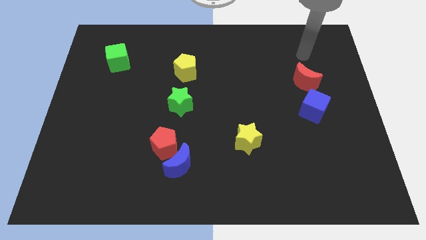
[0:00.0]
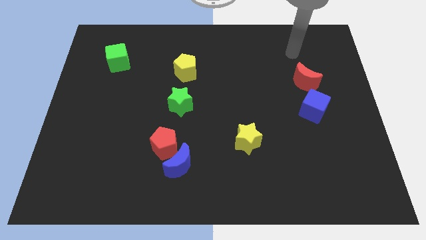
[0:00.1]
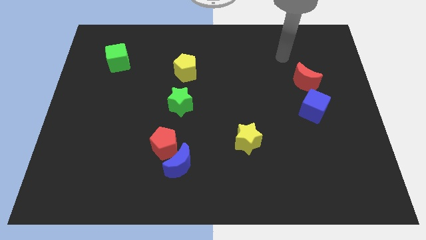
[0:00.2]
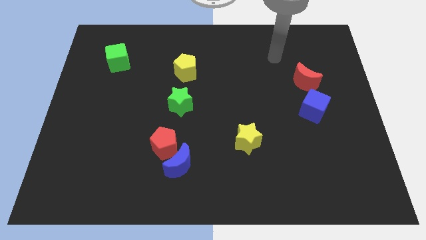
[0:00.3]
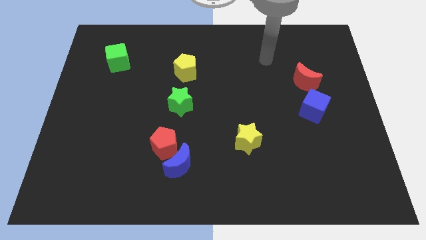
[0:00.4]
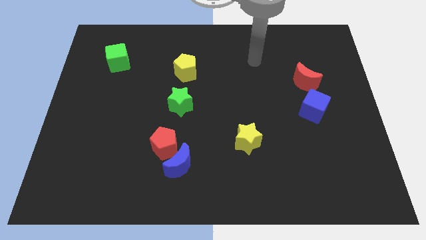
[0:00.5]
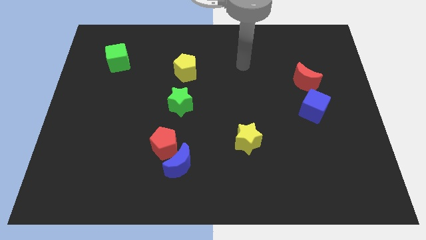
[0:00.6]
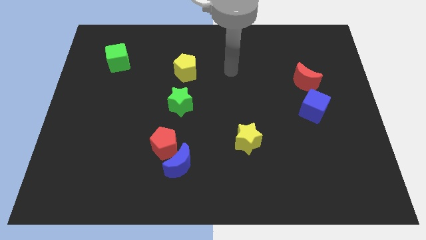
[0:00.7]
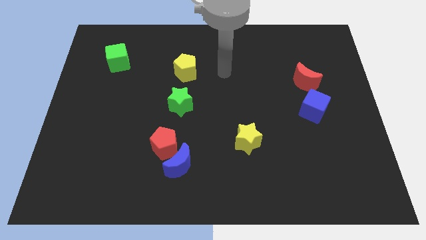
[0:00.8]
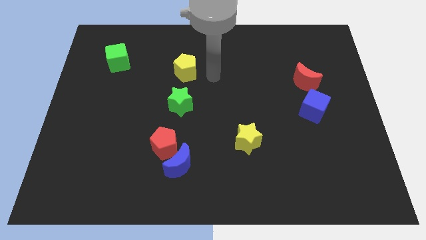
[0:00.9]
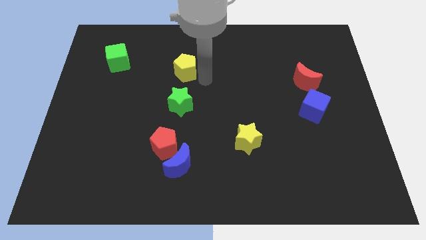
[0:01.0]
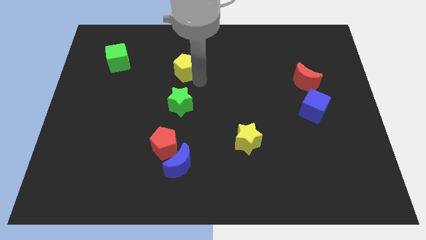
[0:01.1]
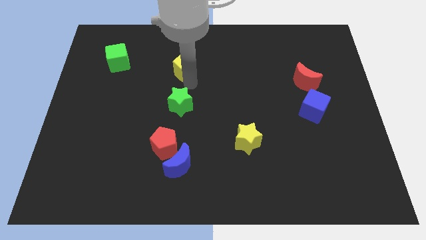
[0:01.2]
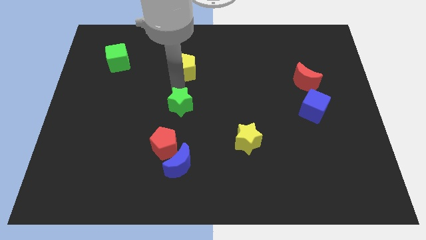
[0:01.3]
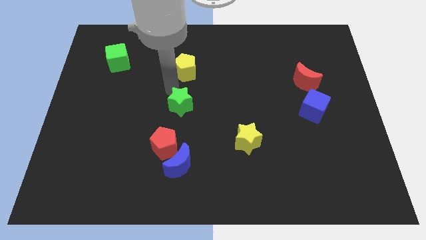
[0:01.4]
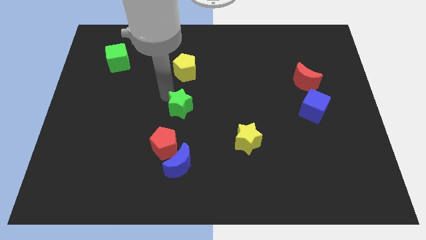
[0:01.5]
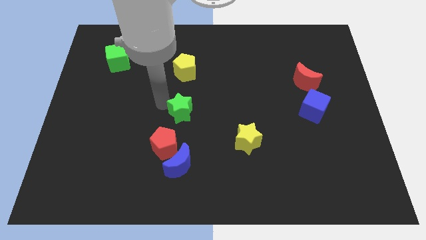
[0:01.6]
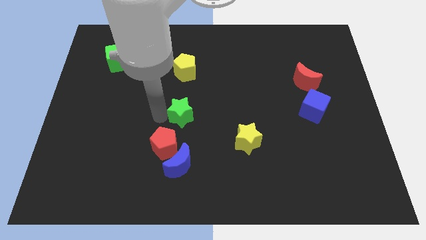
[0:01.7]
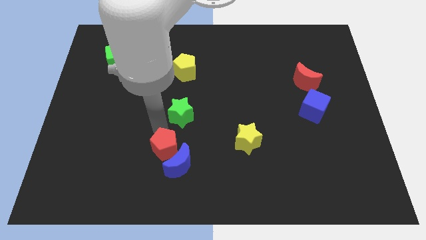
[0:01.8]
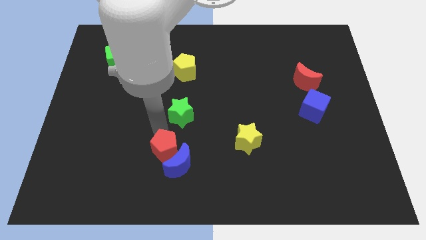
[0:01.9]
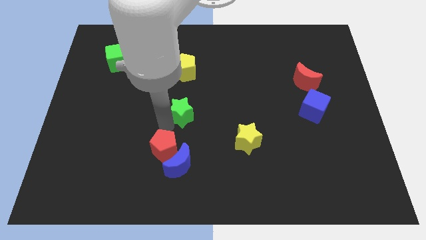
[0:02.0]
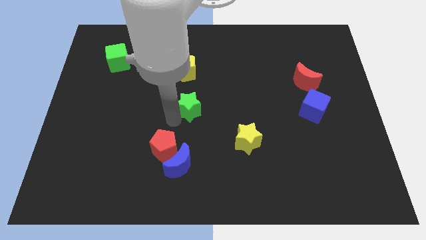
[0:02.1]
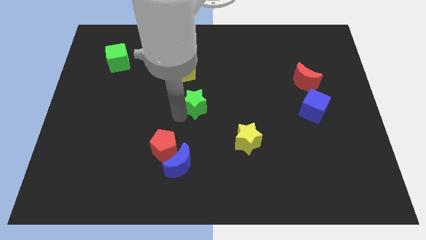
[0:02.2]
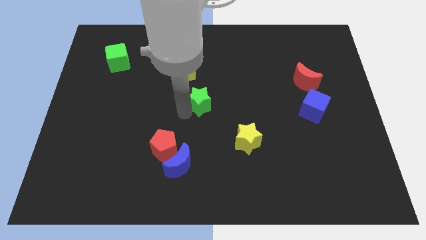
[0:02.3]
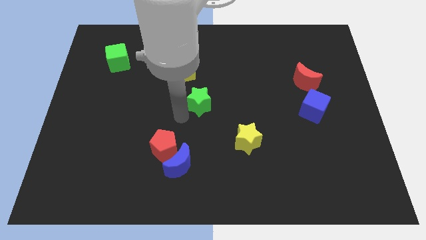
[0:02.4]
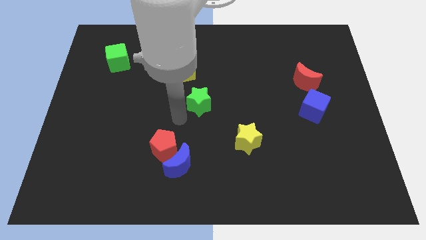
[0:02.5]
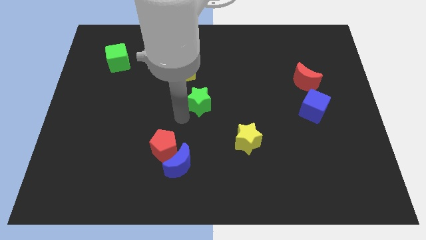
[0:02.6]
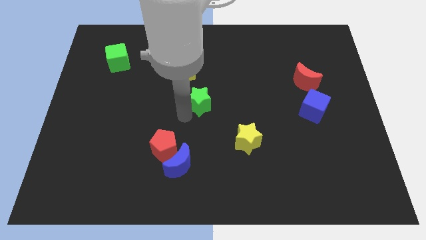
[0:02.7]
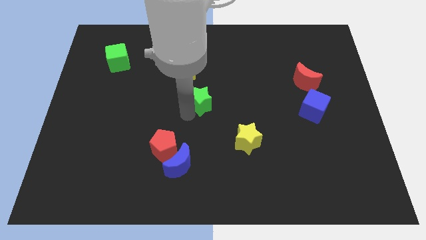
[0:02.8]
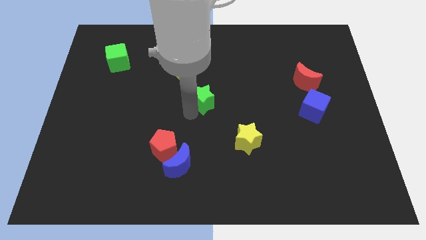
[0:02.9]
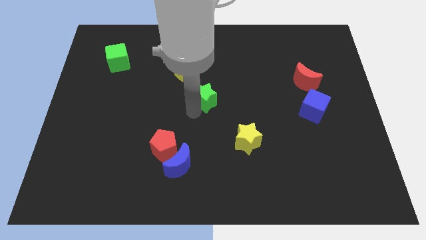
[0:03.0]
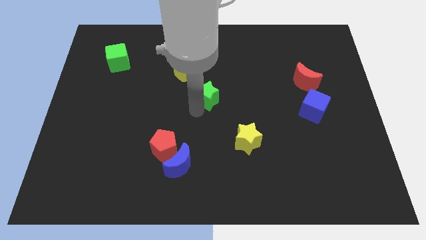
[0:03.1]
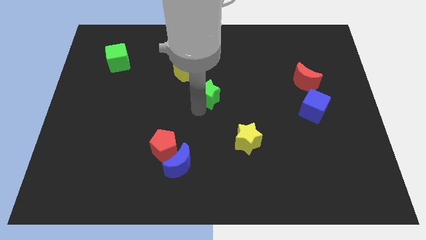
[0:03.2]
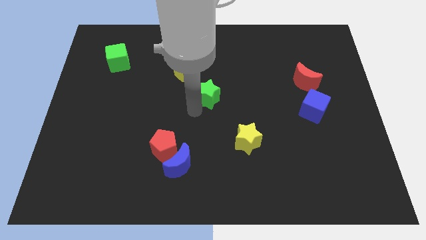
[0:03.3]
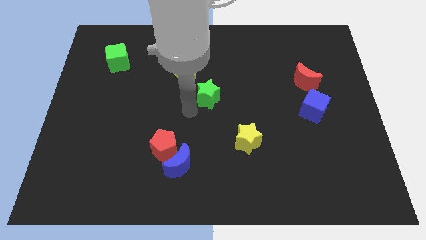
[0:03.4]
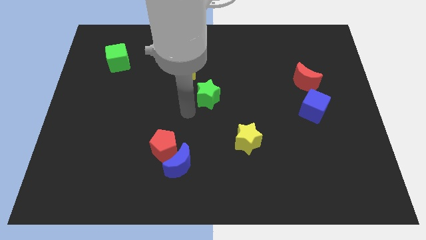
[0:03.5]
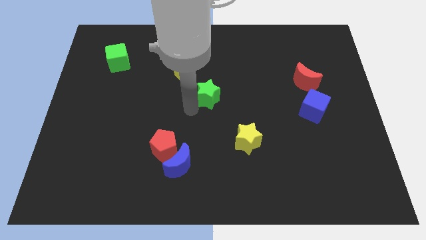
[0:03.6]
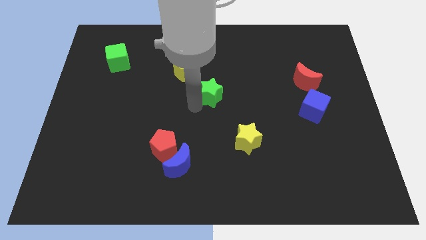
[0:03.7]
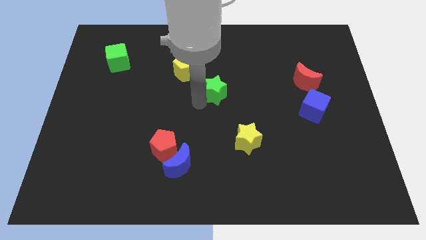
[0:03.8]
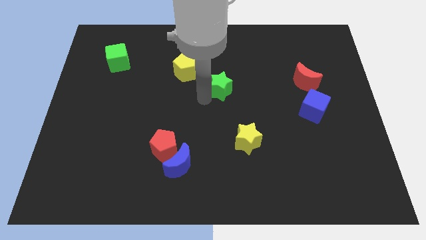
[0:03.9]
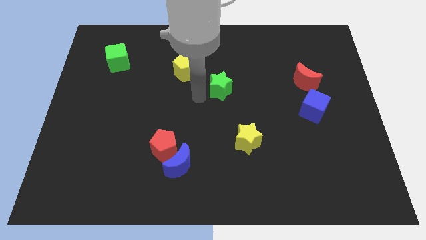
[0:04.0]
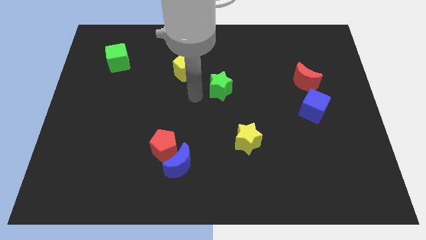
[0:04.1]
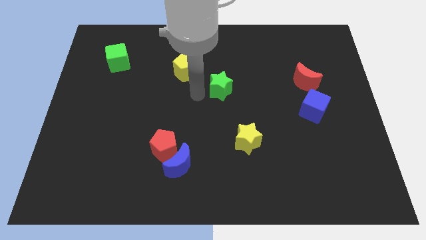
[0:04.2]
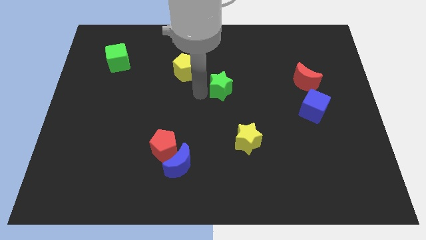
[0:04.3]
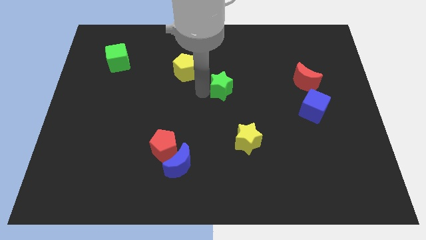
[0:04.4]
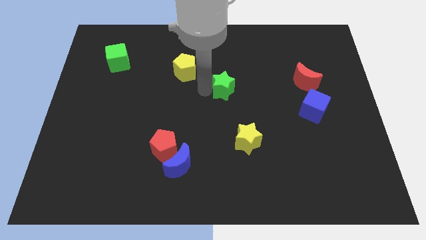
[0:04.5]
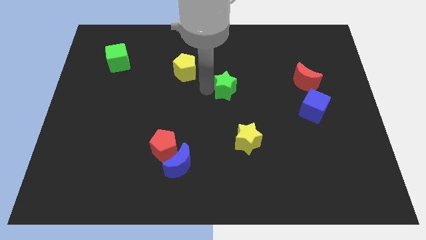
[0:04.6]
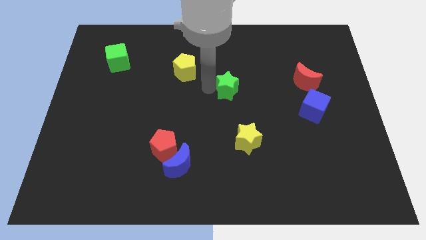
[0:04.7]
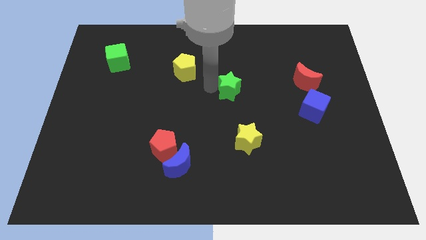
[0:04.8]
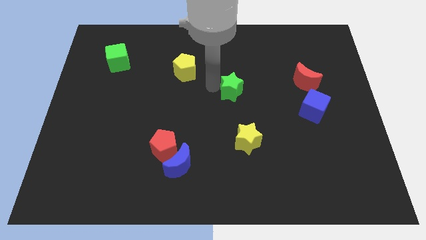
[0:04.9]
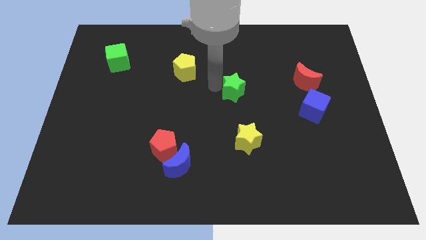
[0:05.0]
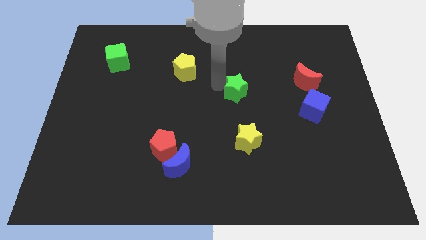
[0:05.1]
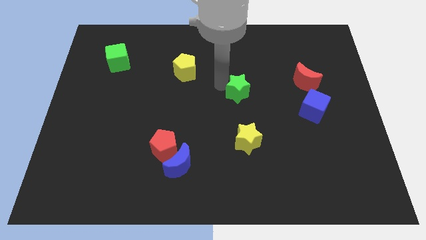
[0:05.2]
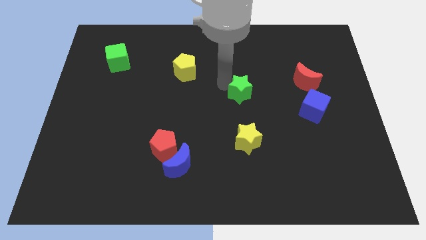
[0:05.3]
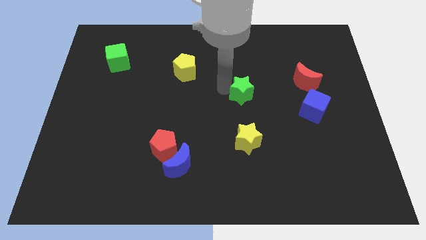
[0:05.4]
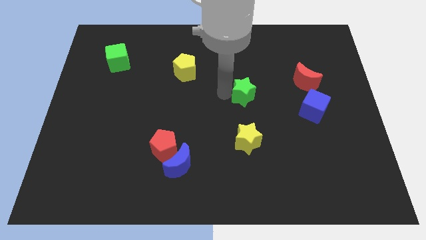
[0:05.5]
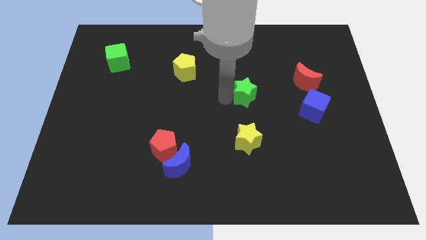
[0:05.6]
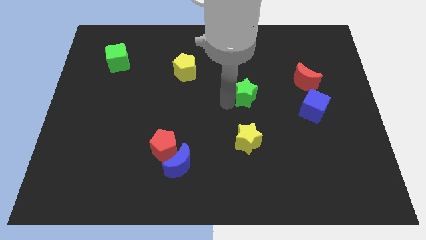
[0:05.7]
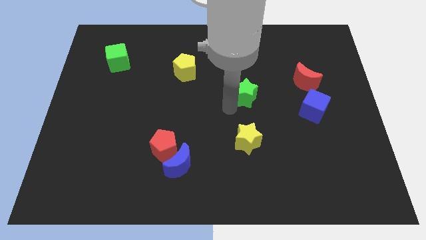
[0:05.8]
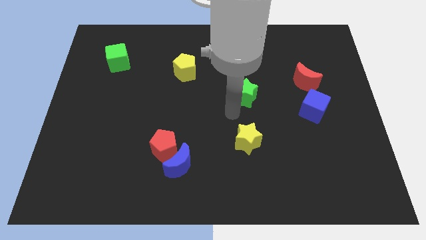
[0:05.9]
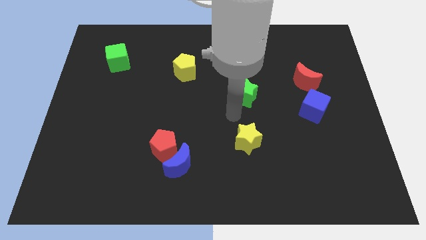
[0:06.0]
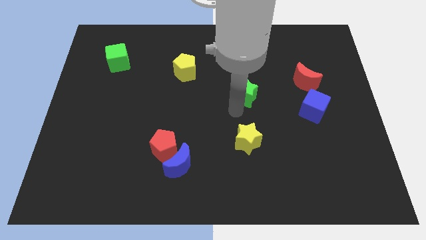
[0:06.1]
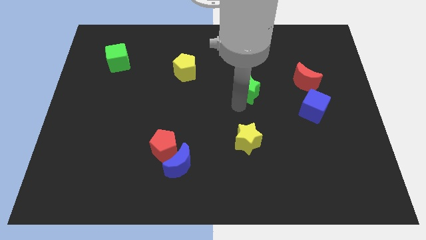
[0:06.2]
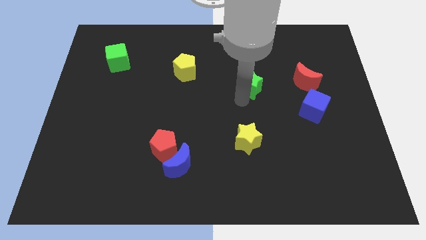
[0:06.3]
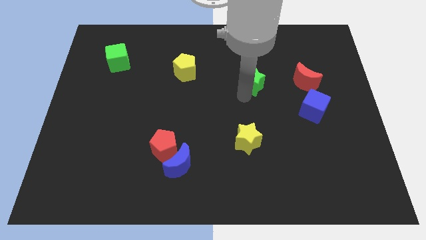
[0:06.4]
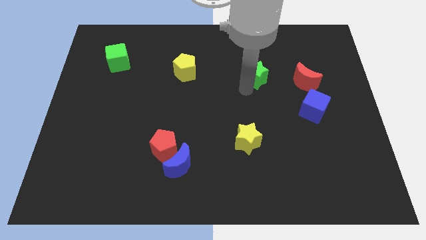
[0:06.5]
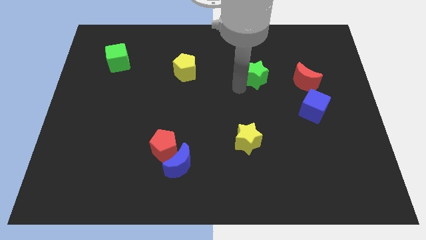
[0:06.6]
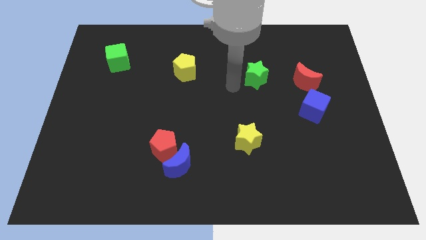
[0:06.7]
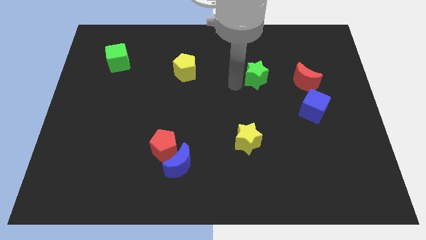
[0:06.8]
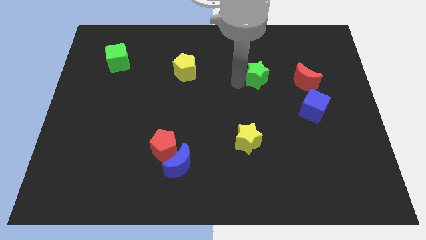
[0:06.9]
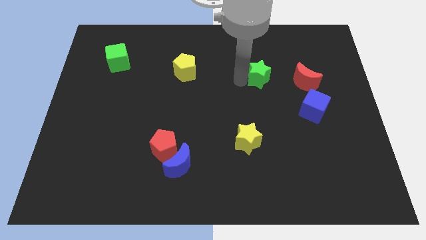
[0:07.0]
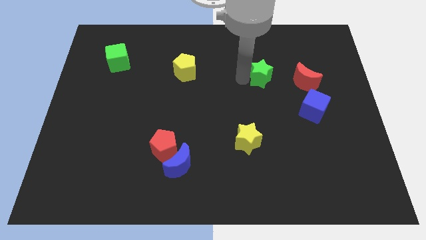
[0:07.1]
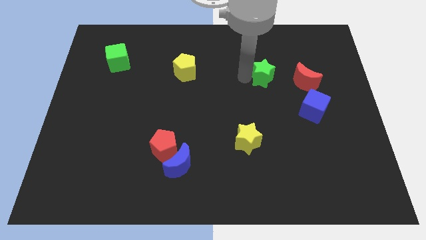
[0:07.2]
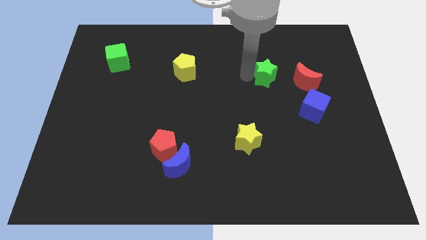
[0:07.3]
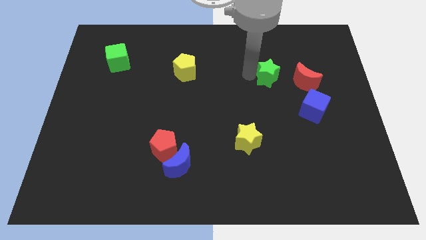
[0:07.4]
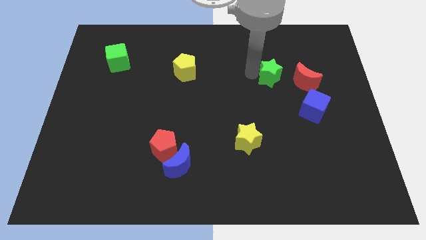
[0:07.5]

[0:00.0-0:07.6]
push the green star diagonally up and to the left of the red moon
